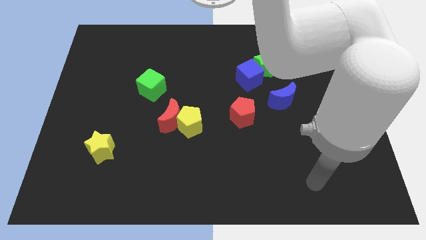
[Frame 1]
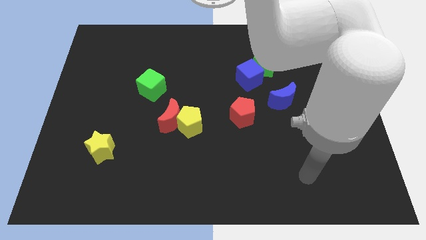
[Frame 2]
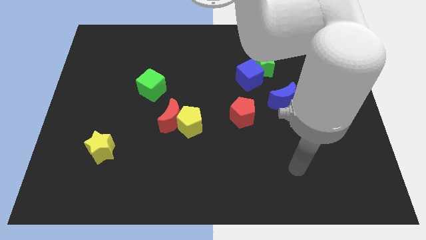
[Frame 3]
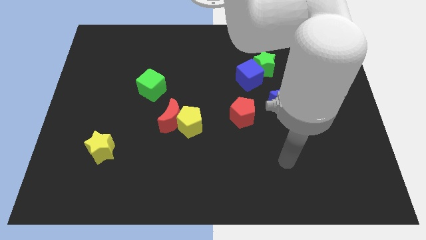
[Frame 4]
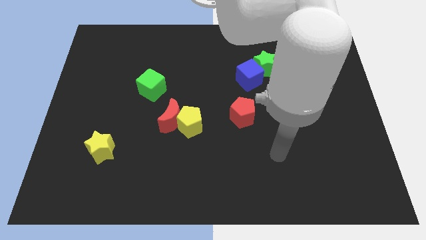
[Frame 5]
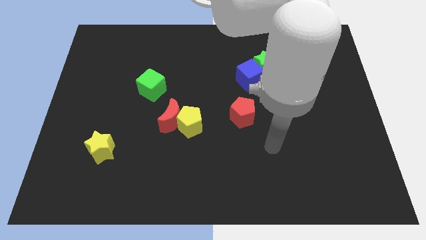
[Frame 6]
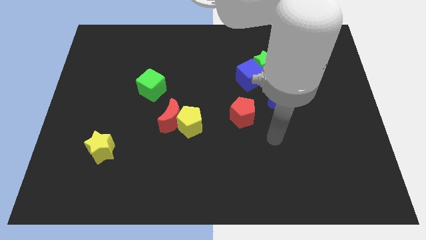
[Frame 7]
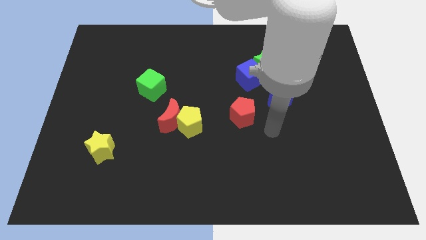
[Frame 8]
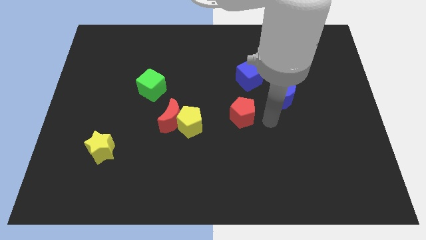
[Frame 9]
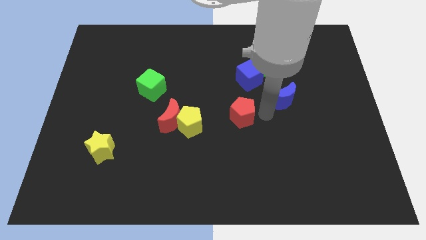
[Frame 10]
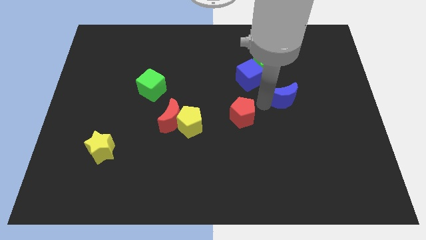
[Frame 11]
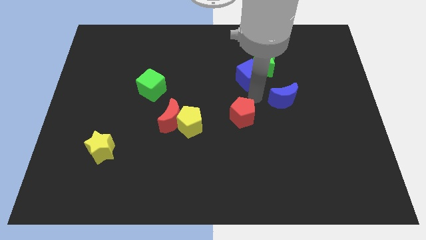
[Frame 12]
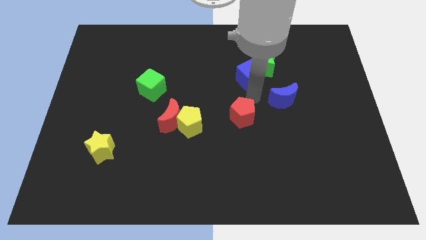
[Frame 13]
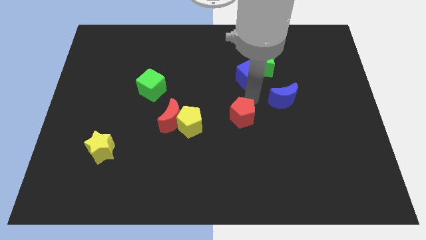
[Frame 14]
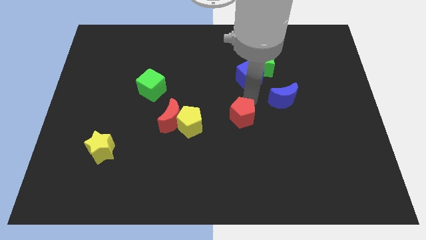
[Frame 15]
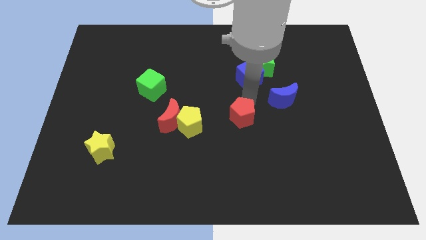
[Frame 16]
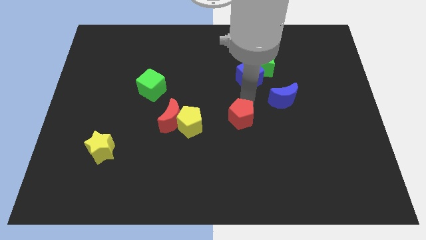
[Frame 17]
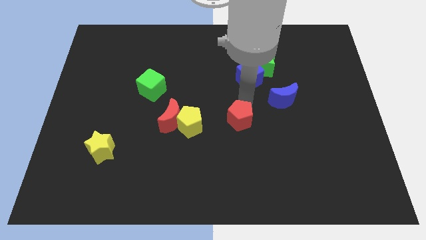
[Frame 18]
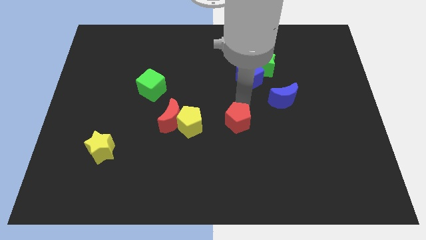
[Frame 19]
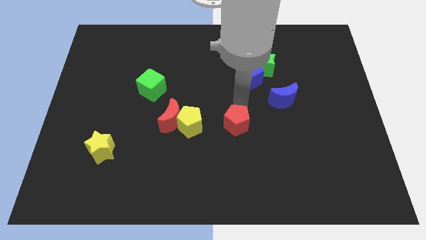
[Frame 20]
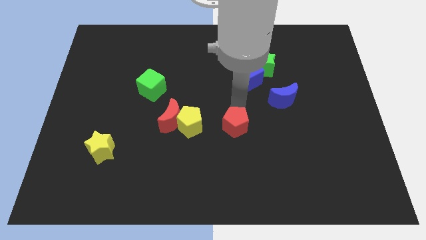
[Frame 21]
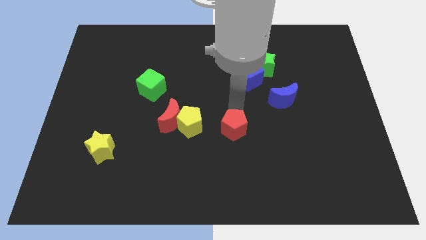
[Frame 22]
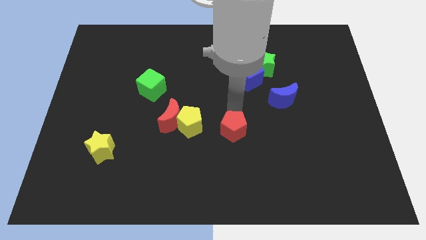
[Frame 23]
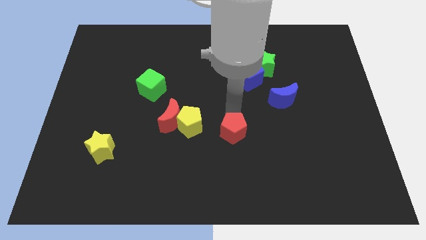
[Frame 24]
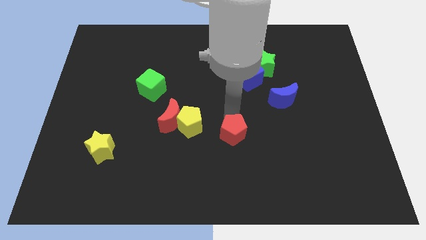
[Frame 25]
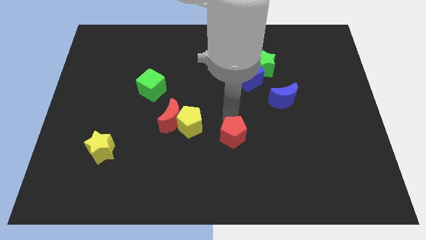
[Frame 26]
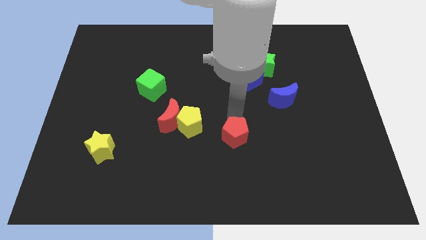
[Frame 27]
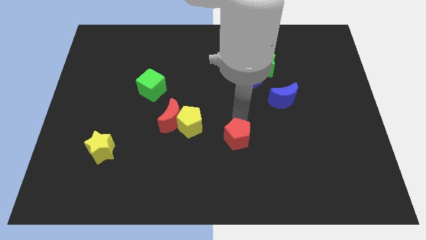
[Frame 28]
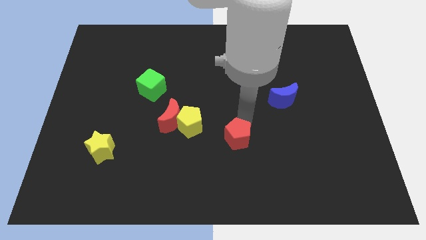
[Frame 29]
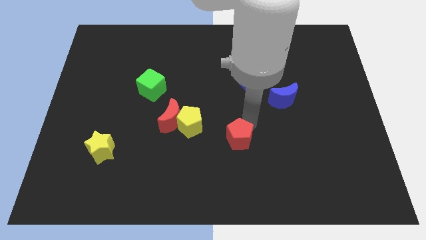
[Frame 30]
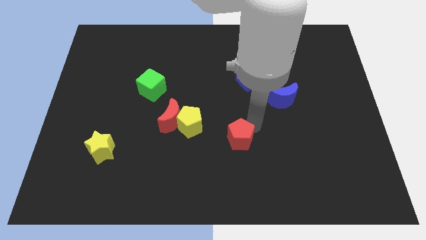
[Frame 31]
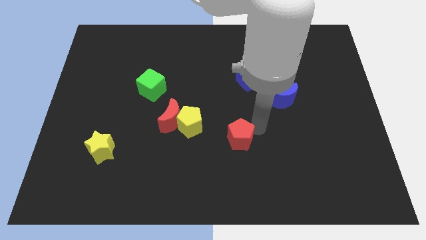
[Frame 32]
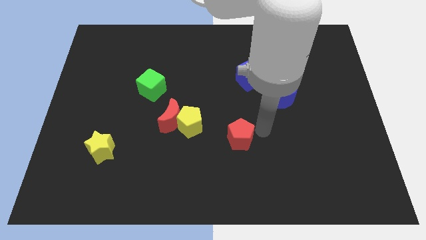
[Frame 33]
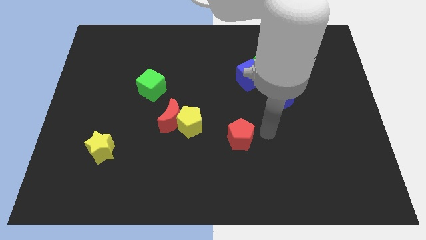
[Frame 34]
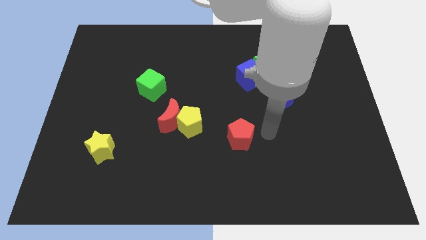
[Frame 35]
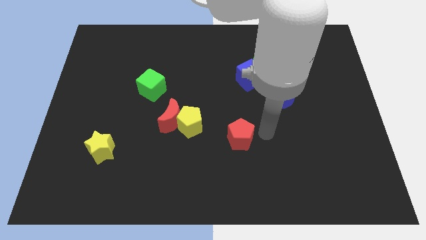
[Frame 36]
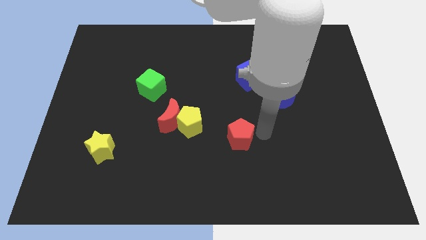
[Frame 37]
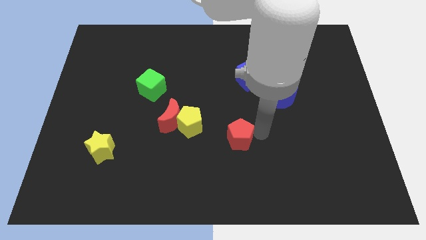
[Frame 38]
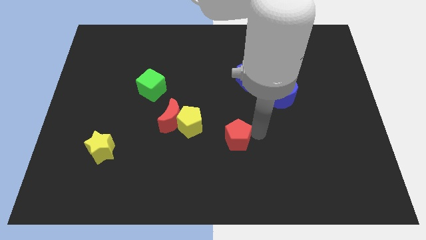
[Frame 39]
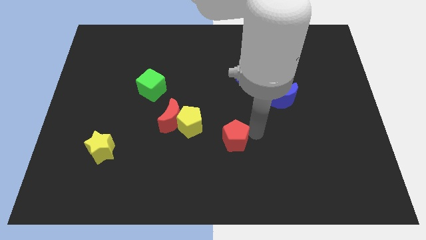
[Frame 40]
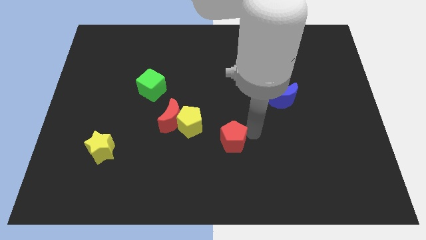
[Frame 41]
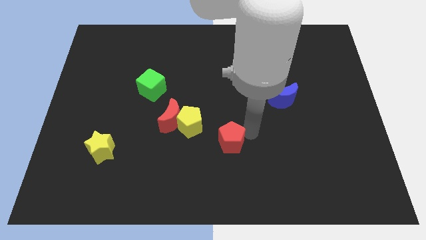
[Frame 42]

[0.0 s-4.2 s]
push the red pentagon down and left diagonally a little

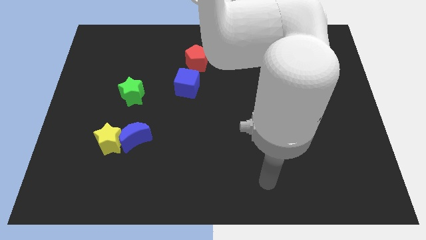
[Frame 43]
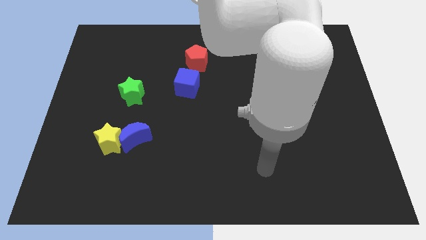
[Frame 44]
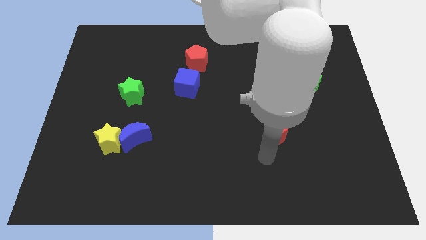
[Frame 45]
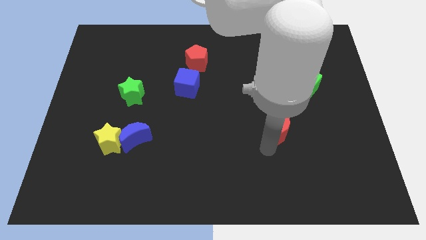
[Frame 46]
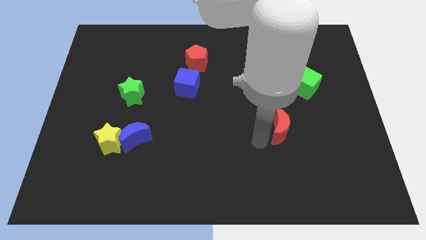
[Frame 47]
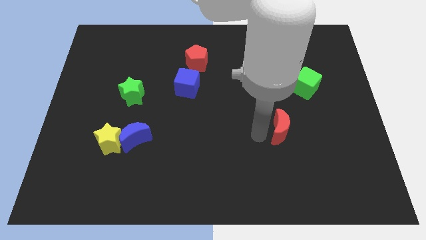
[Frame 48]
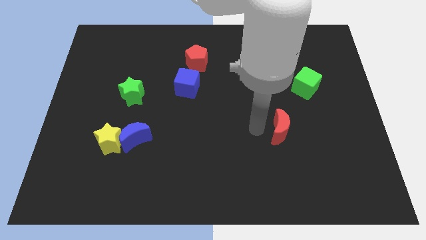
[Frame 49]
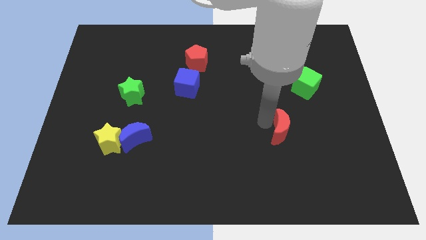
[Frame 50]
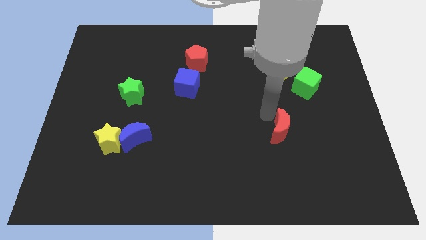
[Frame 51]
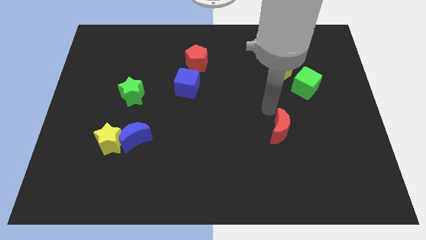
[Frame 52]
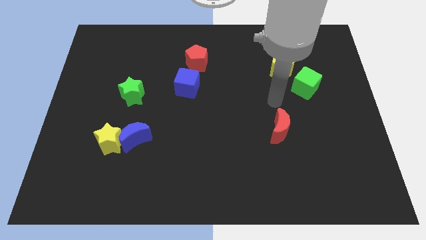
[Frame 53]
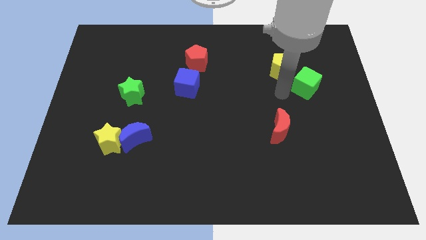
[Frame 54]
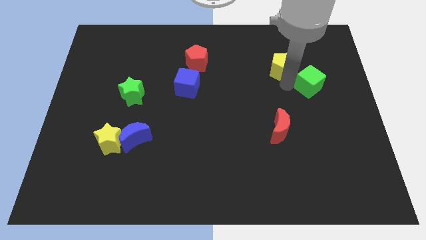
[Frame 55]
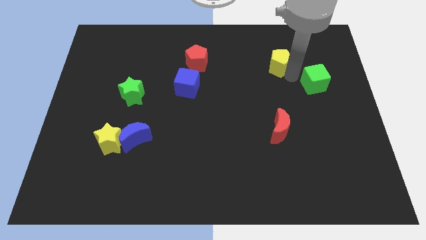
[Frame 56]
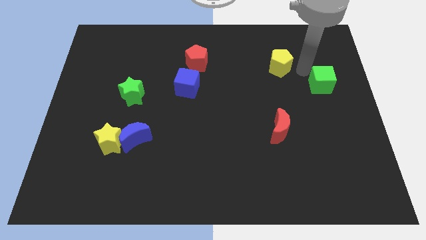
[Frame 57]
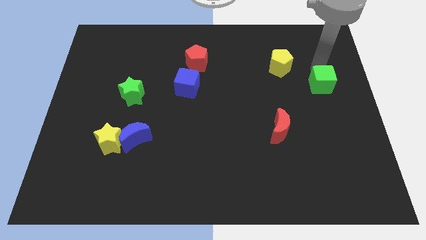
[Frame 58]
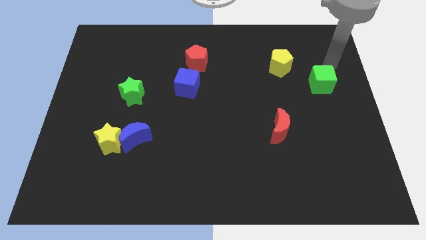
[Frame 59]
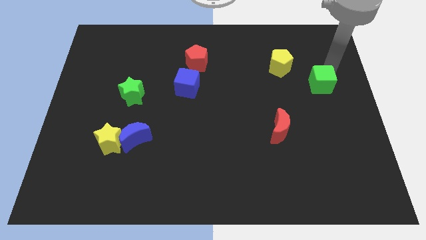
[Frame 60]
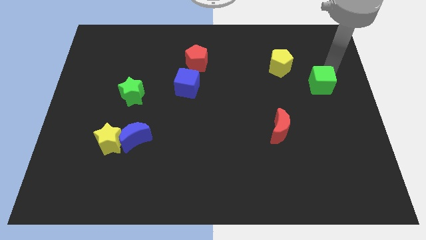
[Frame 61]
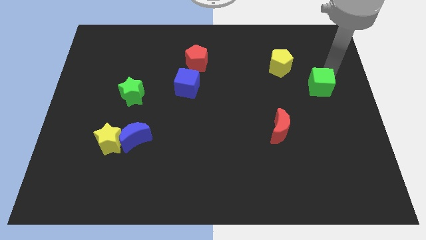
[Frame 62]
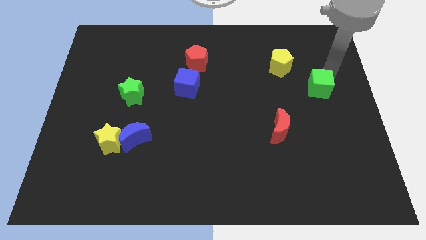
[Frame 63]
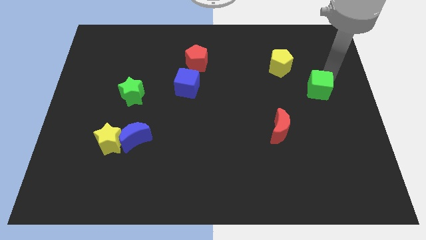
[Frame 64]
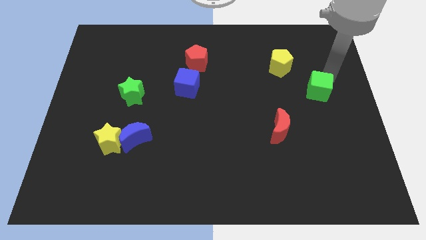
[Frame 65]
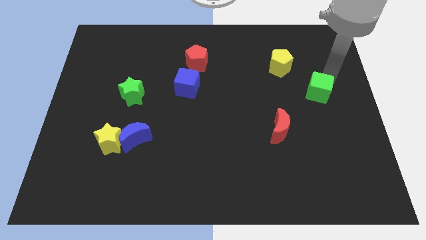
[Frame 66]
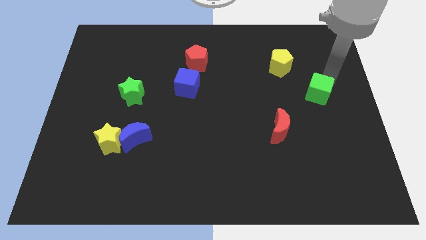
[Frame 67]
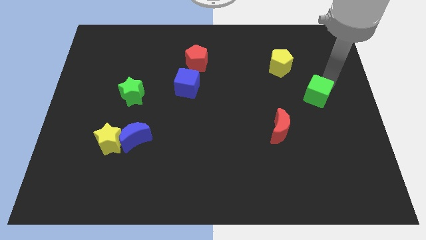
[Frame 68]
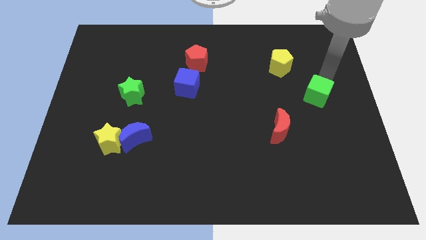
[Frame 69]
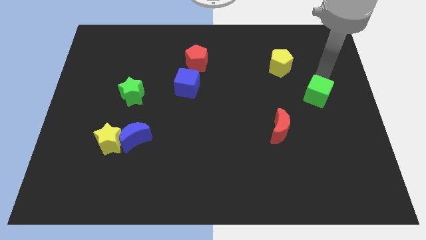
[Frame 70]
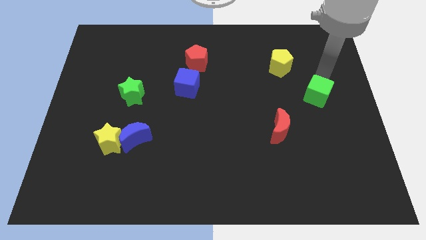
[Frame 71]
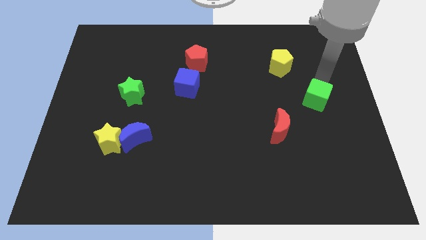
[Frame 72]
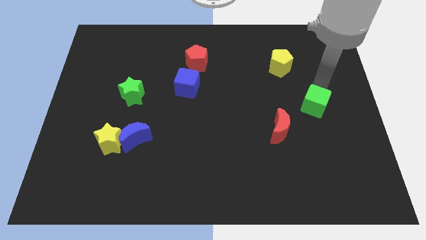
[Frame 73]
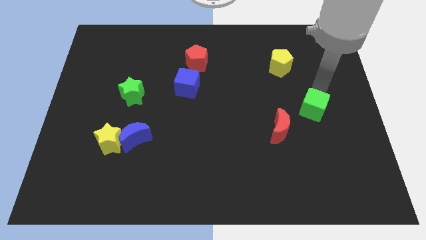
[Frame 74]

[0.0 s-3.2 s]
push the green cube downwards somewhat

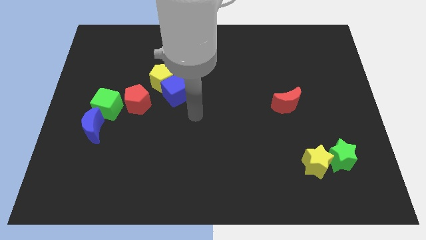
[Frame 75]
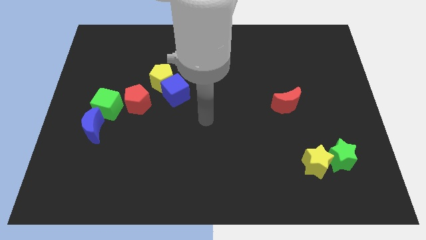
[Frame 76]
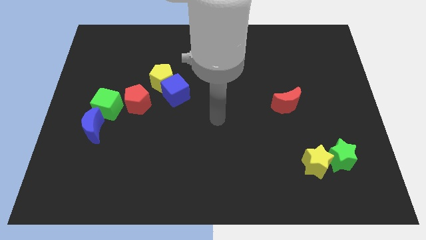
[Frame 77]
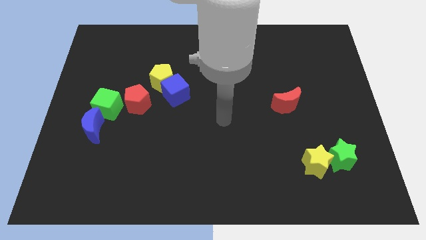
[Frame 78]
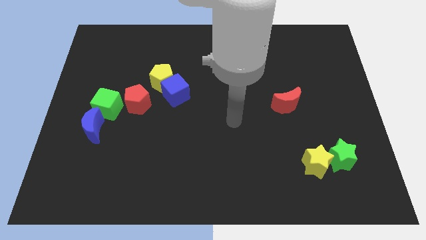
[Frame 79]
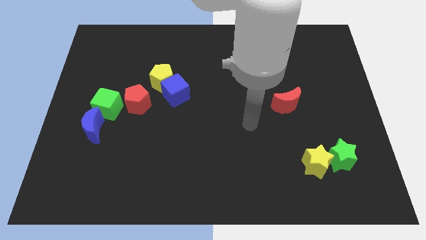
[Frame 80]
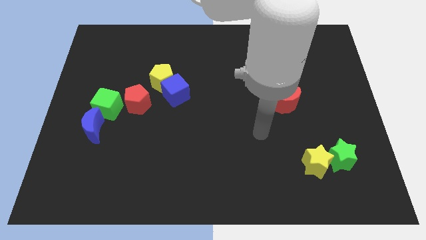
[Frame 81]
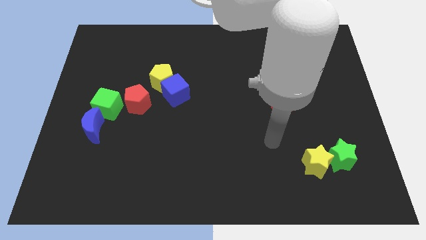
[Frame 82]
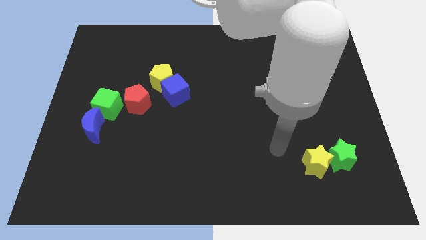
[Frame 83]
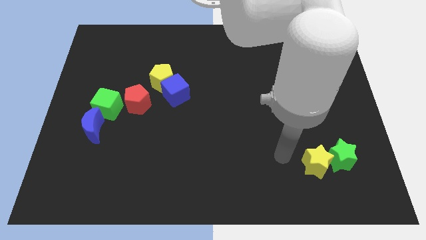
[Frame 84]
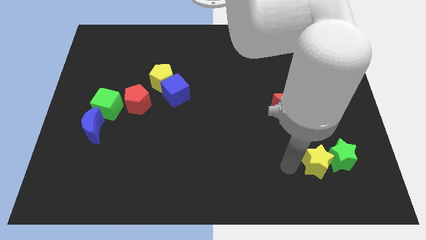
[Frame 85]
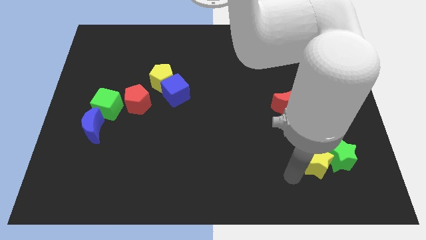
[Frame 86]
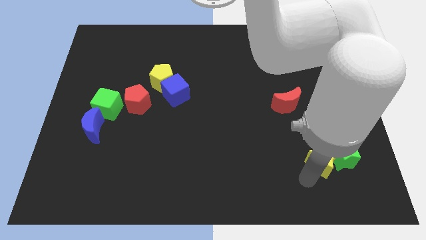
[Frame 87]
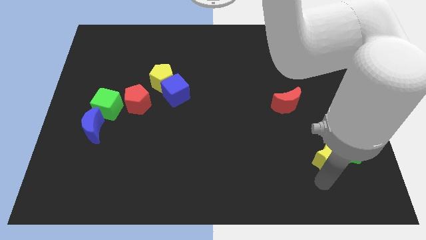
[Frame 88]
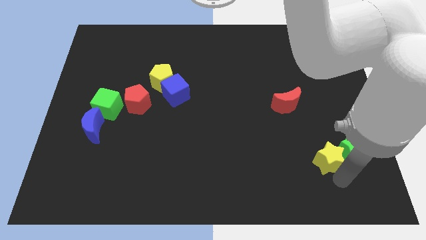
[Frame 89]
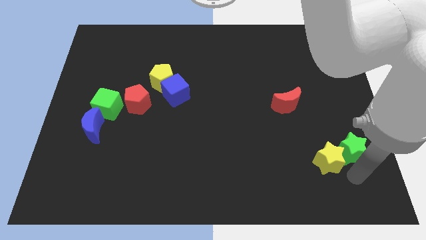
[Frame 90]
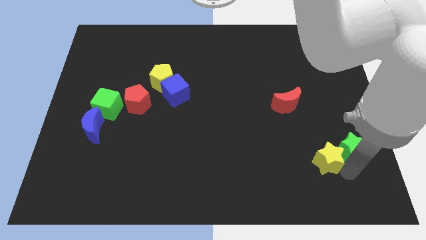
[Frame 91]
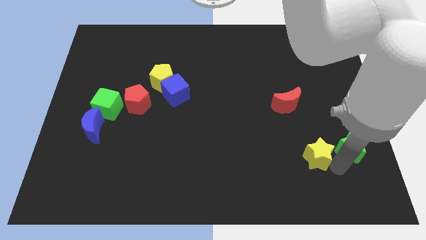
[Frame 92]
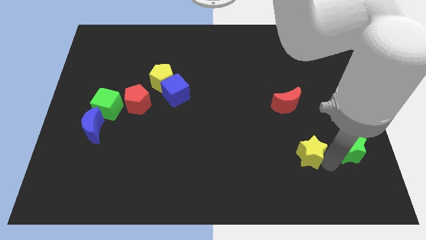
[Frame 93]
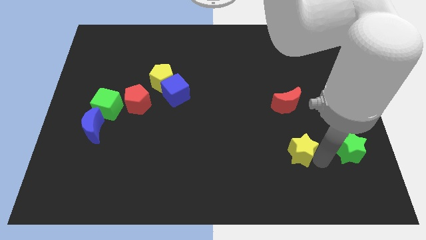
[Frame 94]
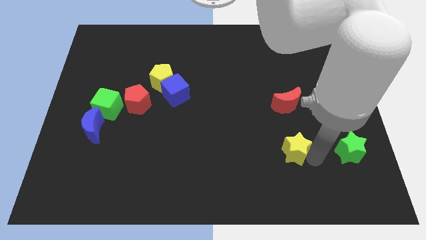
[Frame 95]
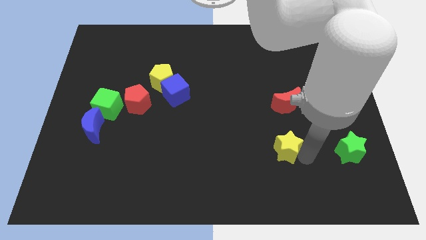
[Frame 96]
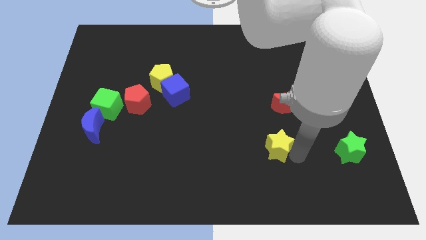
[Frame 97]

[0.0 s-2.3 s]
push the yellow star a little bit upwards and then left
